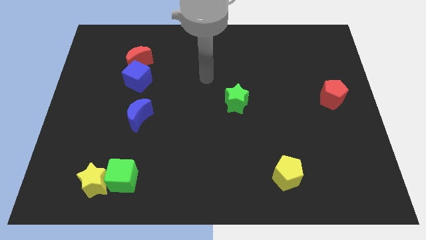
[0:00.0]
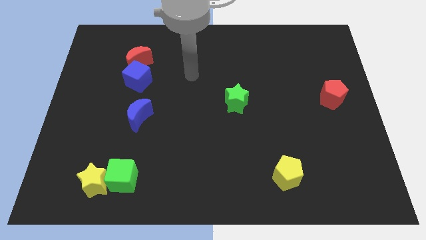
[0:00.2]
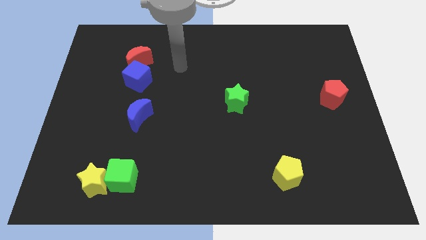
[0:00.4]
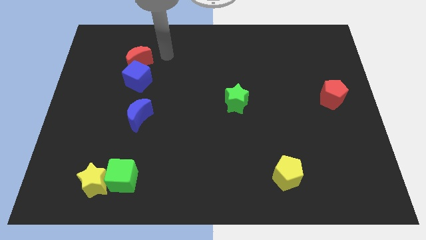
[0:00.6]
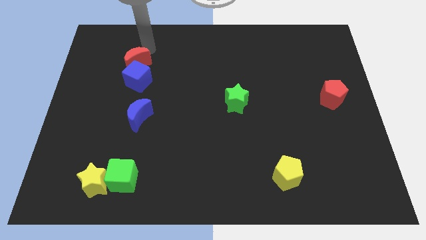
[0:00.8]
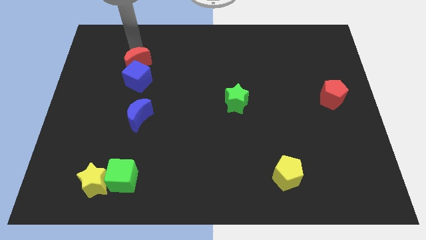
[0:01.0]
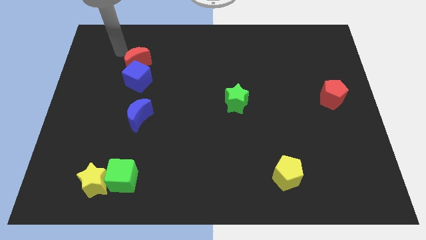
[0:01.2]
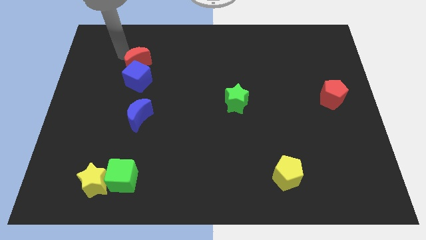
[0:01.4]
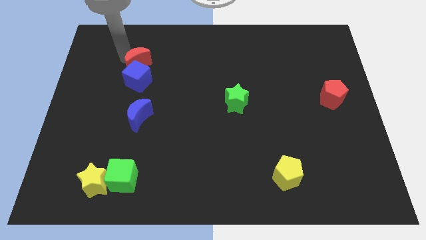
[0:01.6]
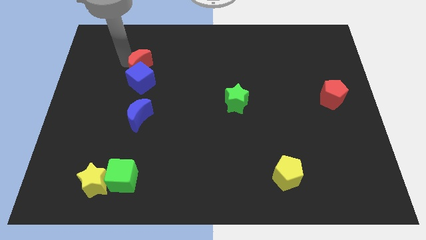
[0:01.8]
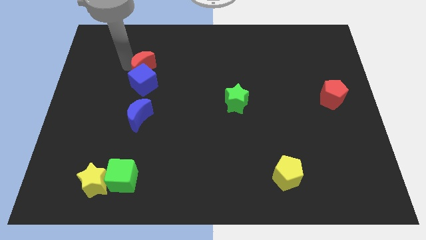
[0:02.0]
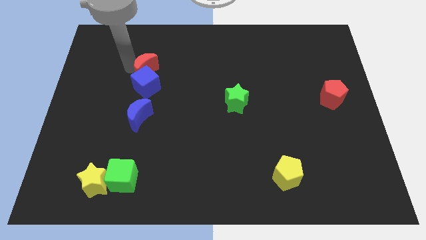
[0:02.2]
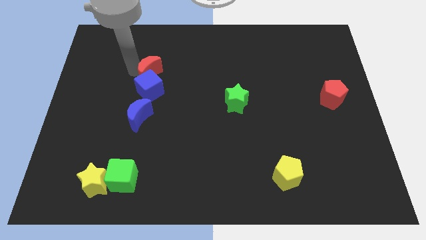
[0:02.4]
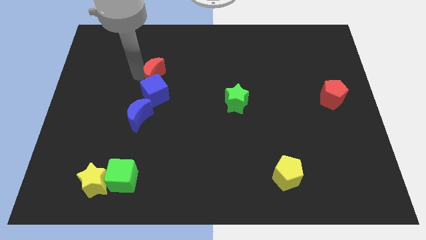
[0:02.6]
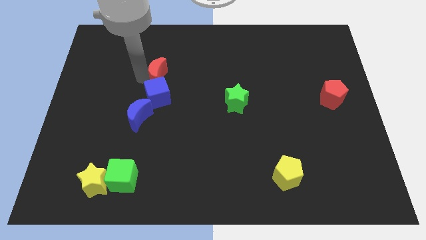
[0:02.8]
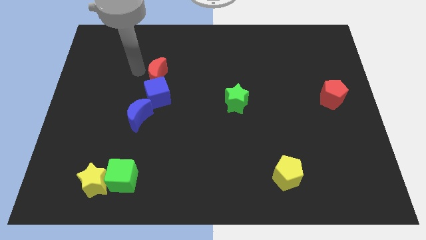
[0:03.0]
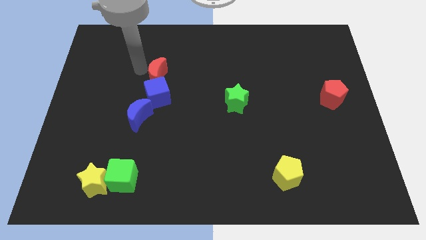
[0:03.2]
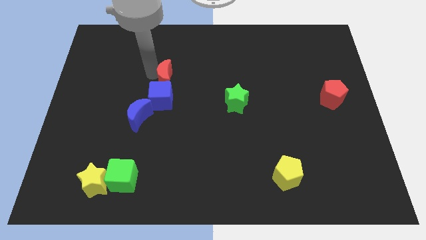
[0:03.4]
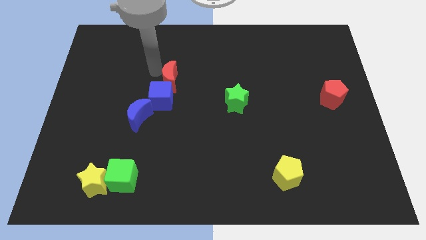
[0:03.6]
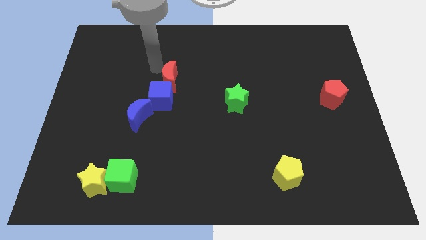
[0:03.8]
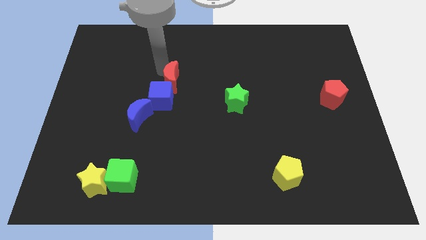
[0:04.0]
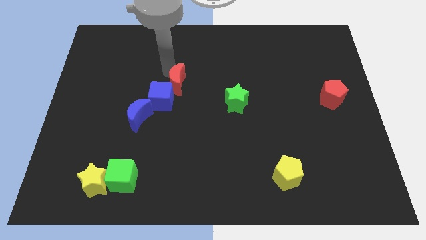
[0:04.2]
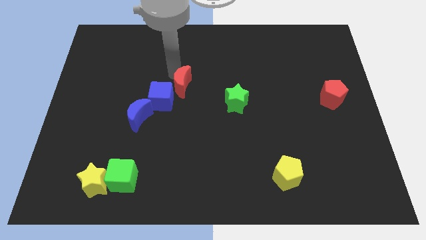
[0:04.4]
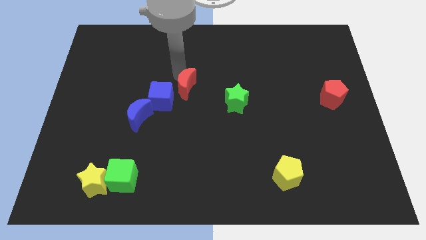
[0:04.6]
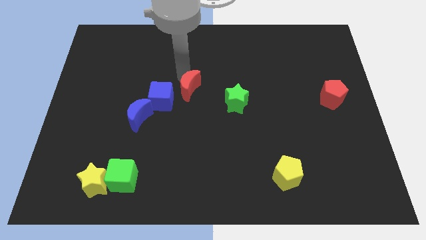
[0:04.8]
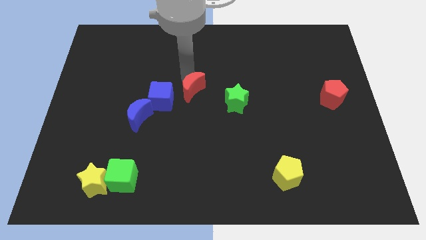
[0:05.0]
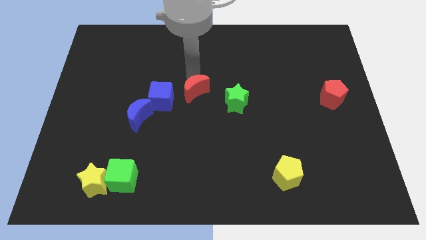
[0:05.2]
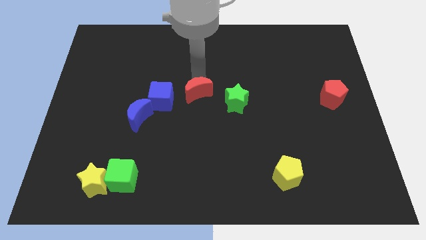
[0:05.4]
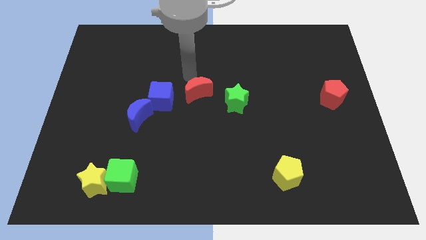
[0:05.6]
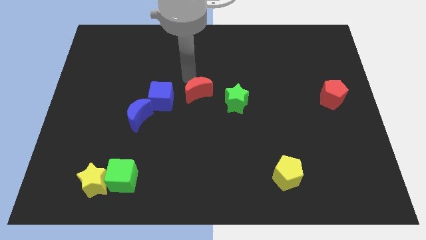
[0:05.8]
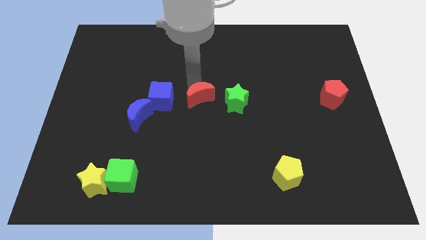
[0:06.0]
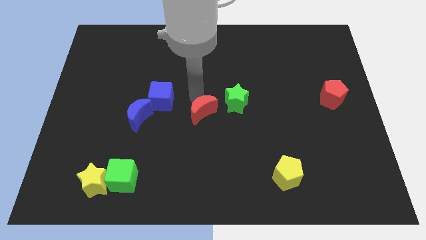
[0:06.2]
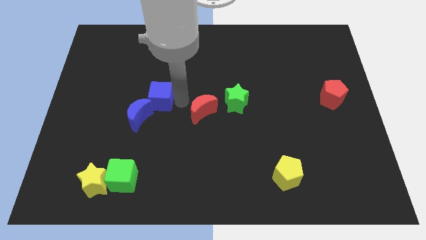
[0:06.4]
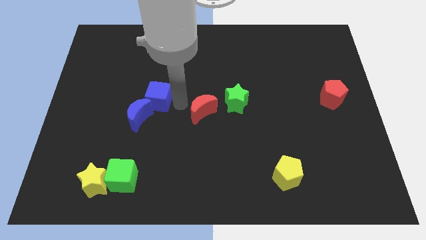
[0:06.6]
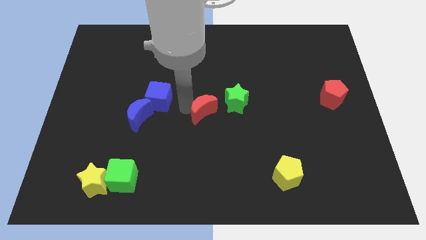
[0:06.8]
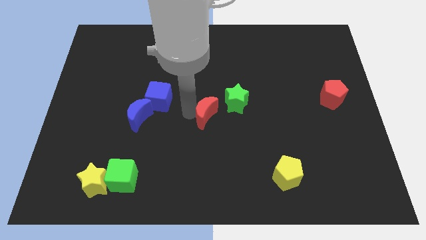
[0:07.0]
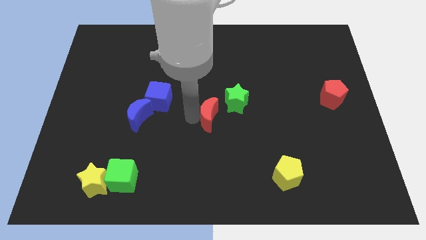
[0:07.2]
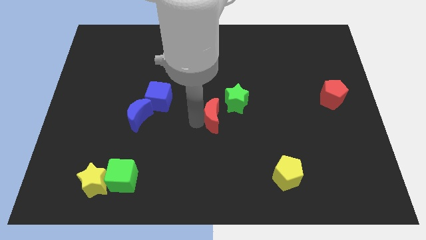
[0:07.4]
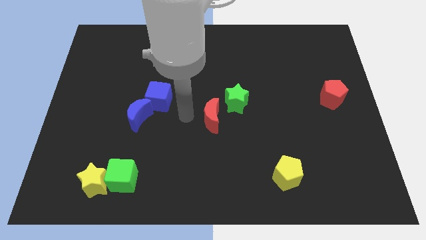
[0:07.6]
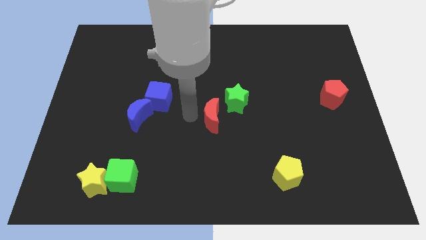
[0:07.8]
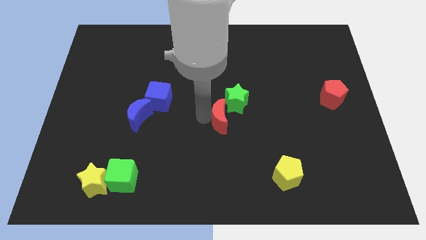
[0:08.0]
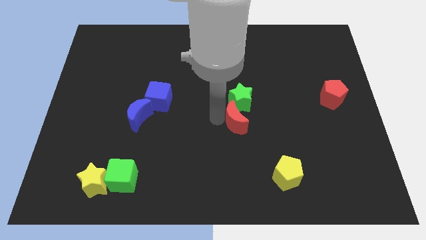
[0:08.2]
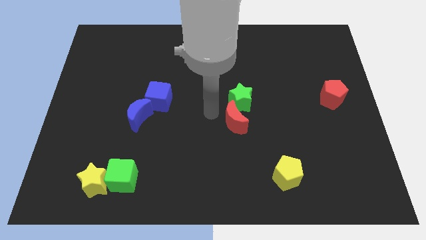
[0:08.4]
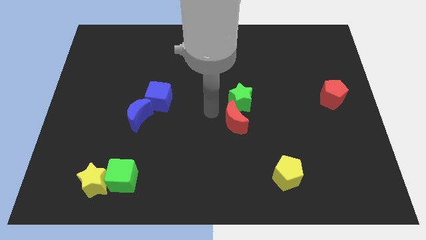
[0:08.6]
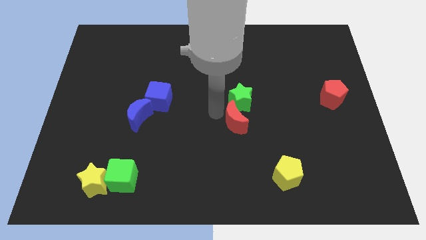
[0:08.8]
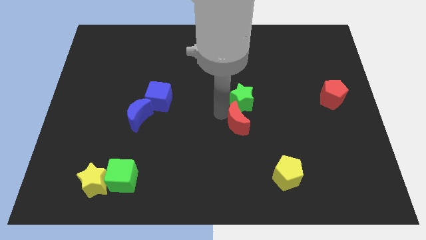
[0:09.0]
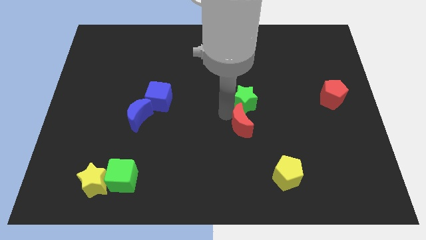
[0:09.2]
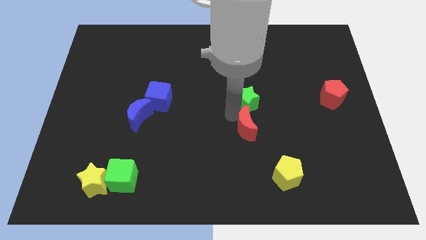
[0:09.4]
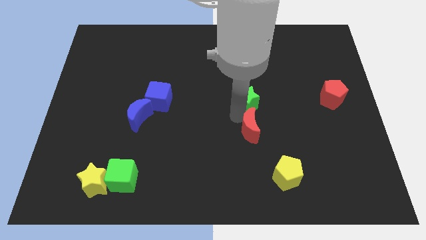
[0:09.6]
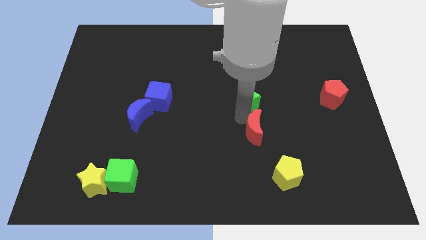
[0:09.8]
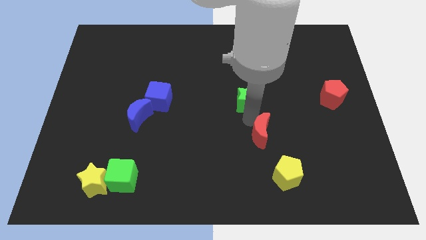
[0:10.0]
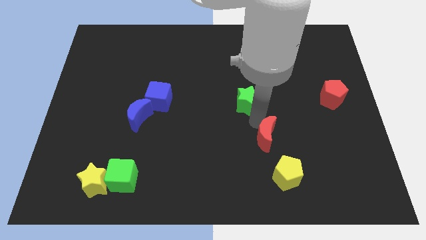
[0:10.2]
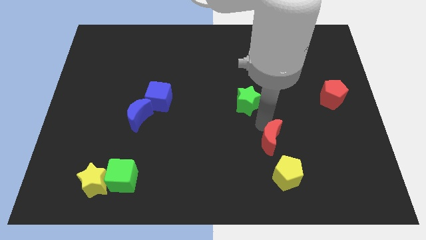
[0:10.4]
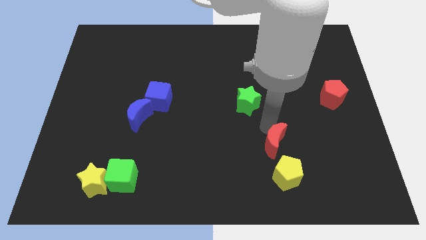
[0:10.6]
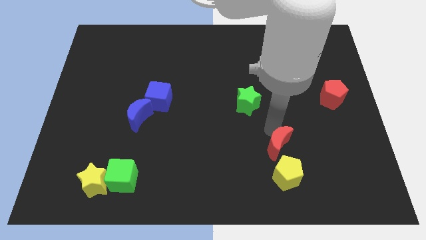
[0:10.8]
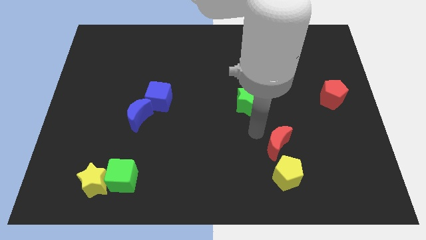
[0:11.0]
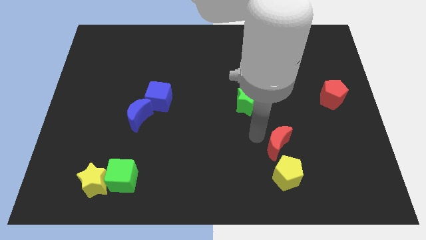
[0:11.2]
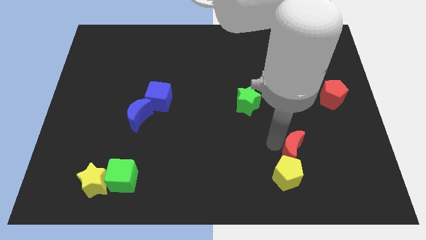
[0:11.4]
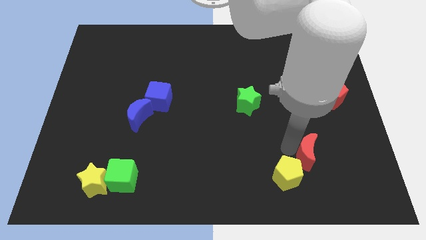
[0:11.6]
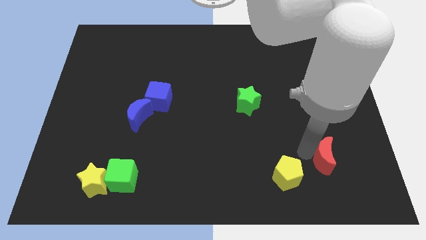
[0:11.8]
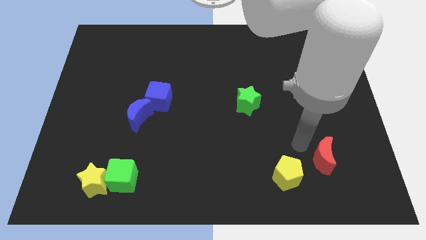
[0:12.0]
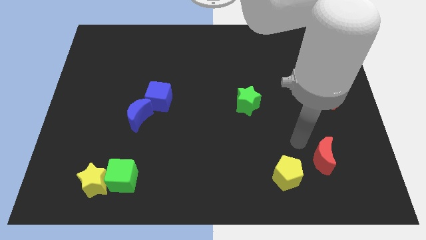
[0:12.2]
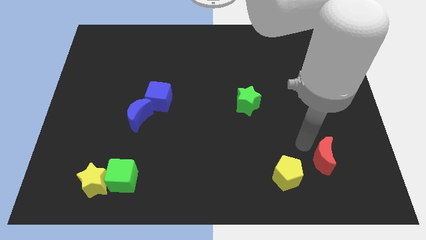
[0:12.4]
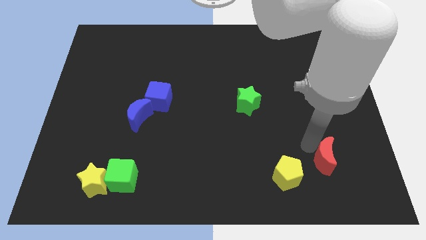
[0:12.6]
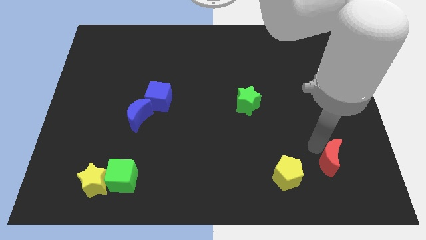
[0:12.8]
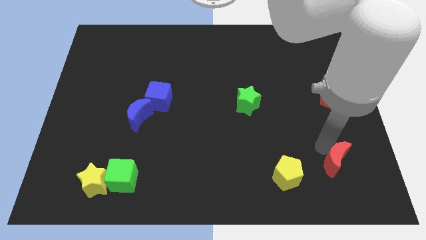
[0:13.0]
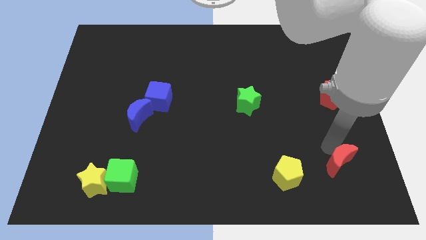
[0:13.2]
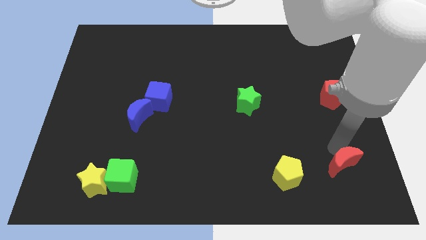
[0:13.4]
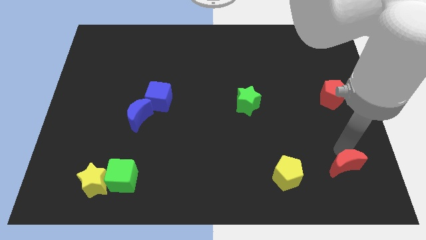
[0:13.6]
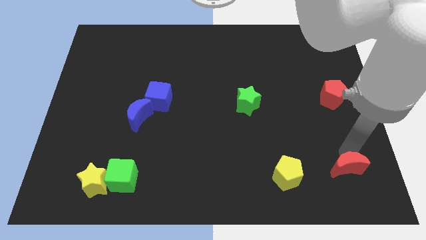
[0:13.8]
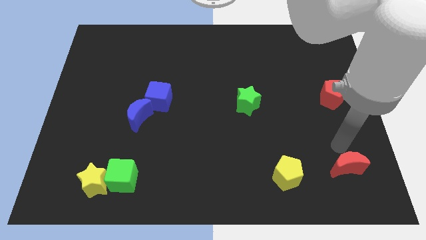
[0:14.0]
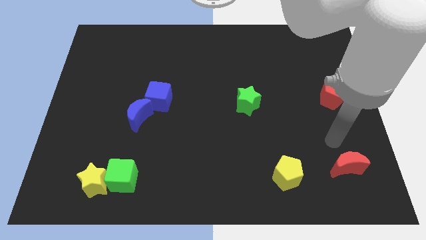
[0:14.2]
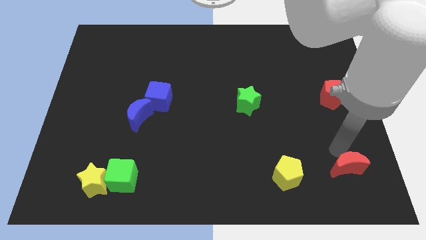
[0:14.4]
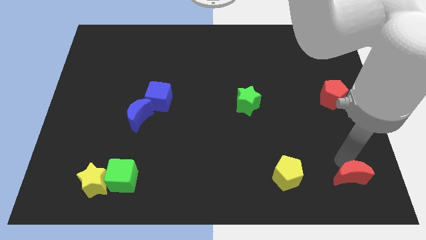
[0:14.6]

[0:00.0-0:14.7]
slide the red moon to the bottom right of the board

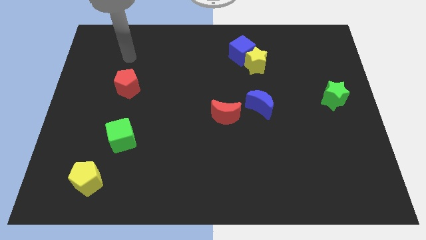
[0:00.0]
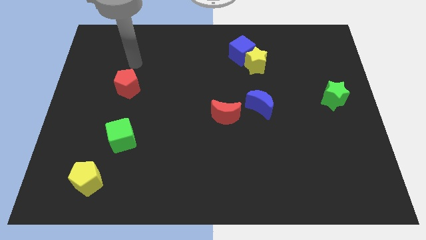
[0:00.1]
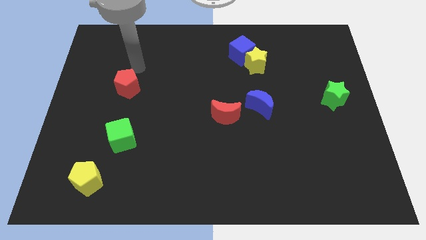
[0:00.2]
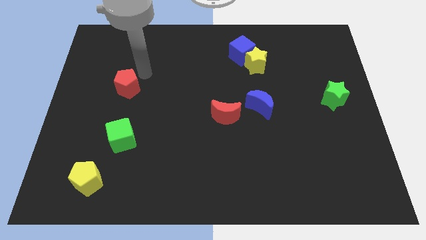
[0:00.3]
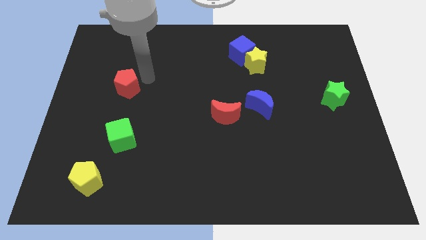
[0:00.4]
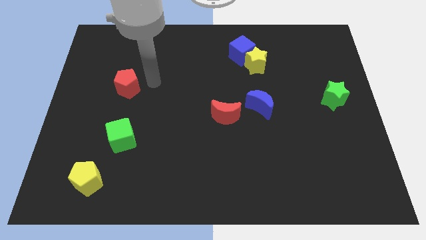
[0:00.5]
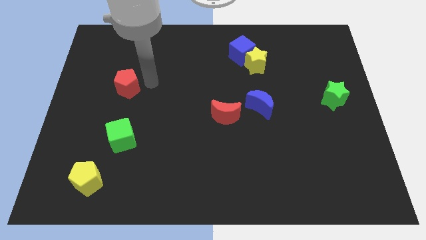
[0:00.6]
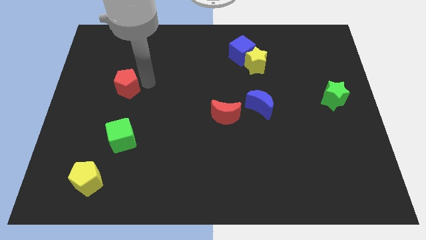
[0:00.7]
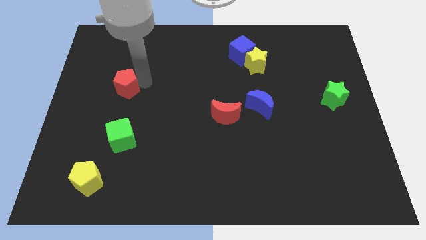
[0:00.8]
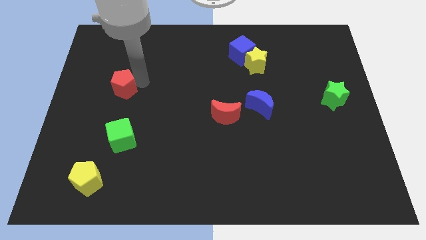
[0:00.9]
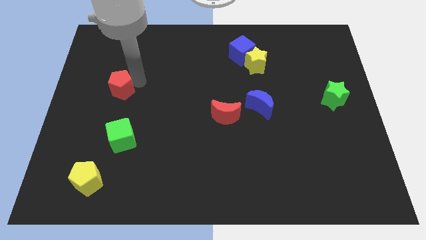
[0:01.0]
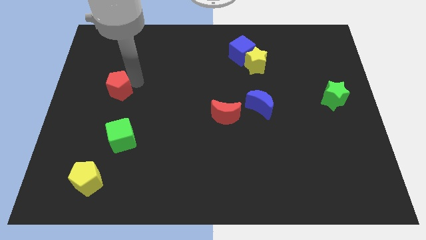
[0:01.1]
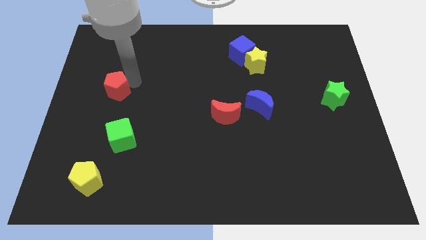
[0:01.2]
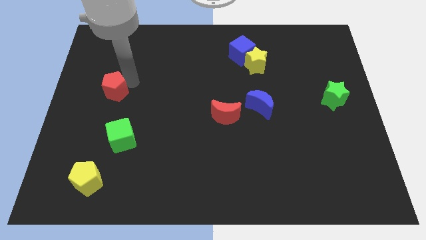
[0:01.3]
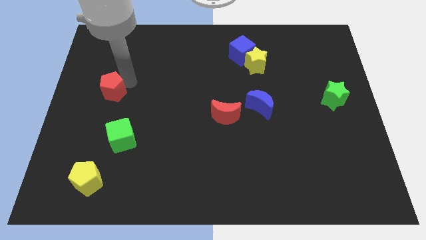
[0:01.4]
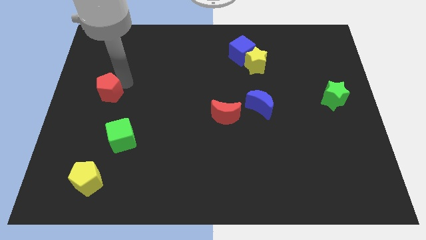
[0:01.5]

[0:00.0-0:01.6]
push the red pentagon to the left side
